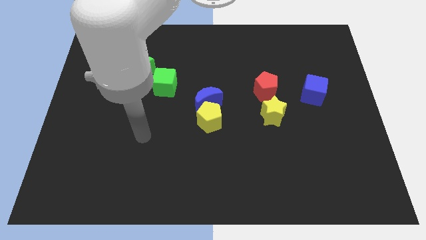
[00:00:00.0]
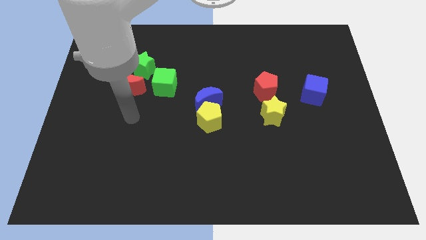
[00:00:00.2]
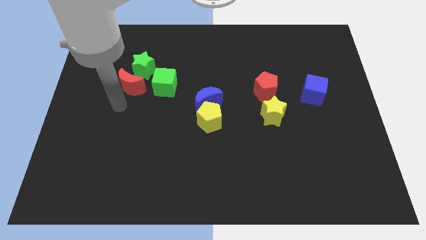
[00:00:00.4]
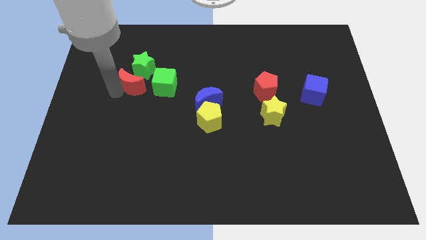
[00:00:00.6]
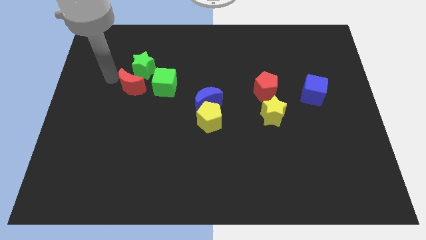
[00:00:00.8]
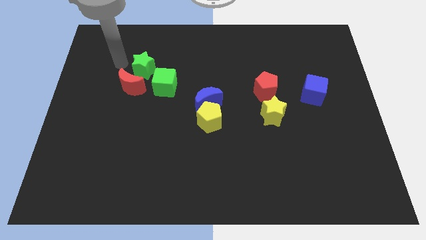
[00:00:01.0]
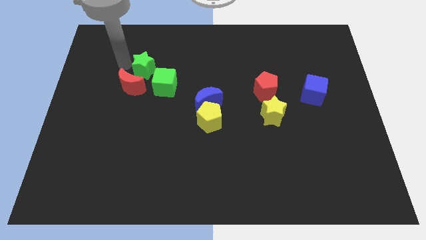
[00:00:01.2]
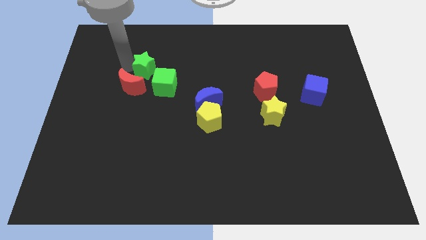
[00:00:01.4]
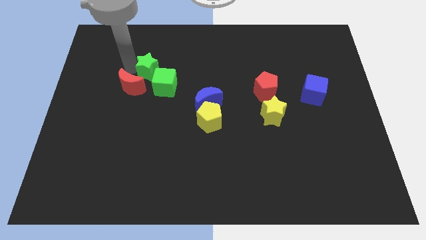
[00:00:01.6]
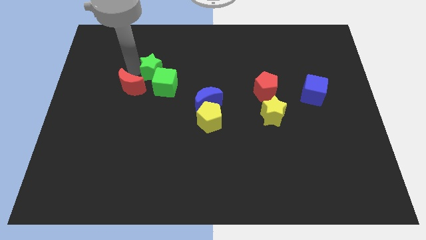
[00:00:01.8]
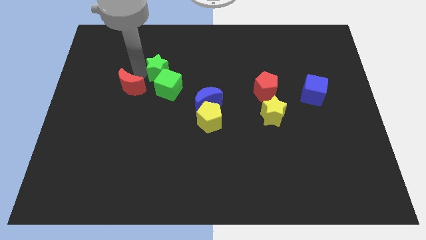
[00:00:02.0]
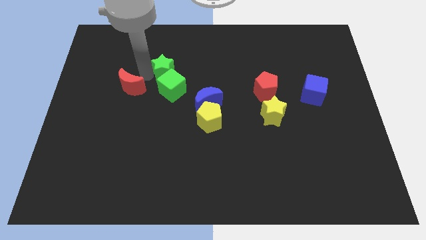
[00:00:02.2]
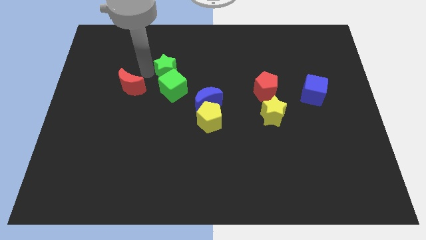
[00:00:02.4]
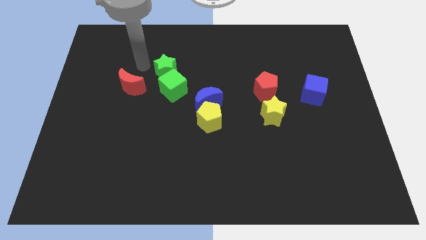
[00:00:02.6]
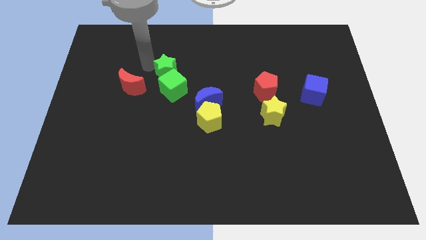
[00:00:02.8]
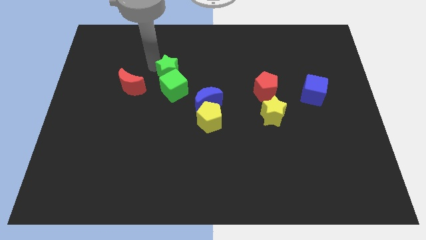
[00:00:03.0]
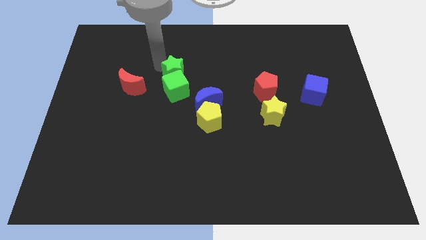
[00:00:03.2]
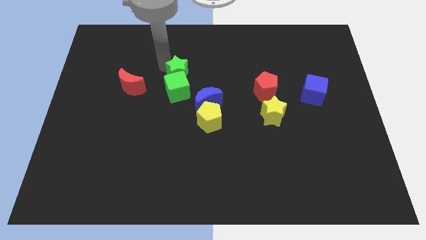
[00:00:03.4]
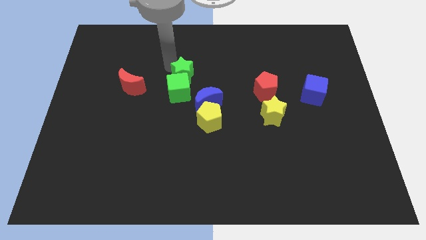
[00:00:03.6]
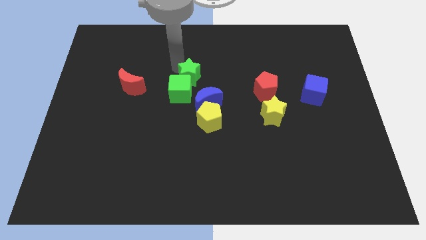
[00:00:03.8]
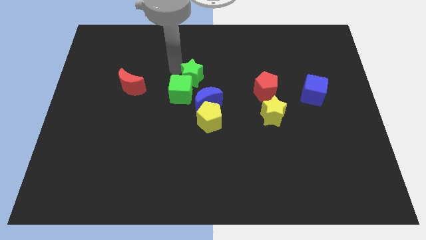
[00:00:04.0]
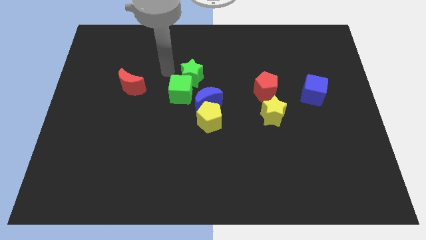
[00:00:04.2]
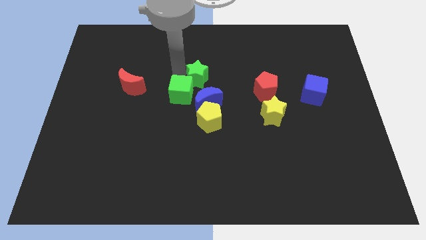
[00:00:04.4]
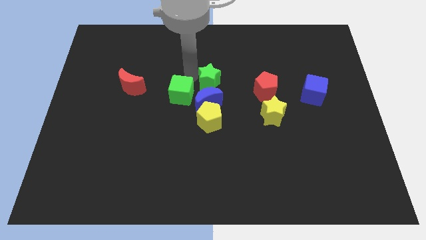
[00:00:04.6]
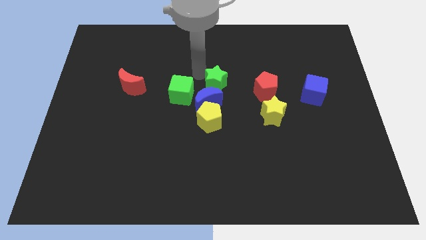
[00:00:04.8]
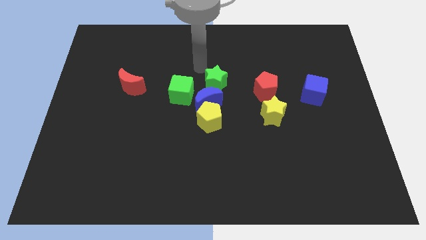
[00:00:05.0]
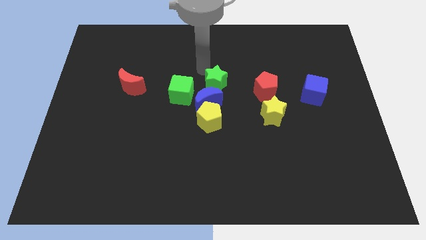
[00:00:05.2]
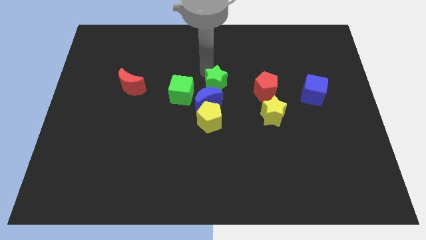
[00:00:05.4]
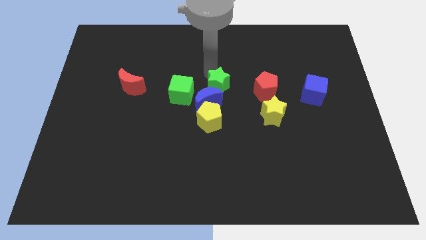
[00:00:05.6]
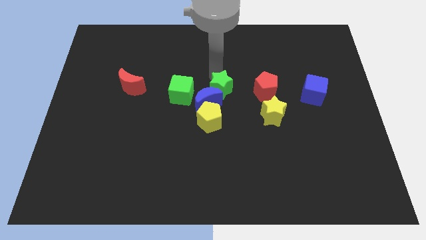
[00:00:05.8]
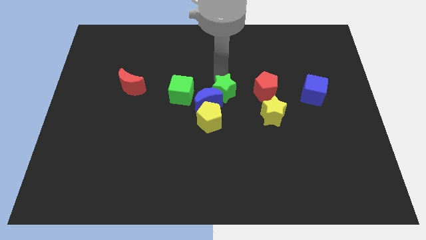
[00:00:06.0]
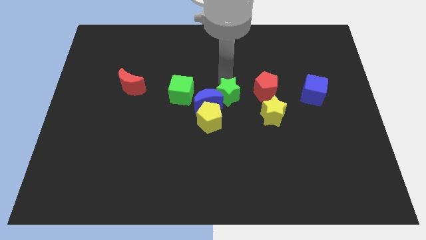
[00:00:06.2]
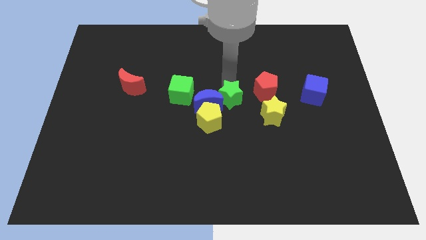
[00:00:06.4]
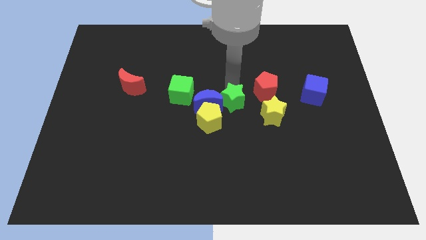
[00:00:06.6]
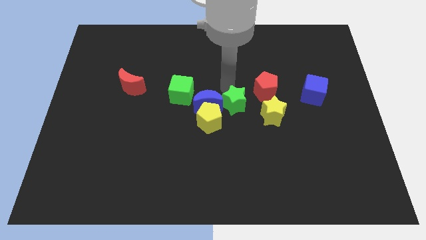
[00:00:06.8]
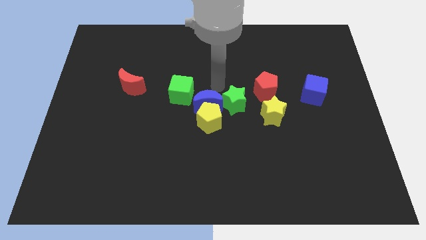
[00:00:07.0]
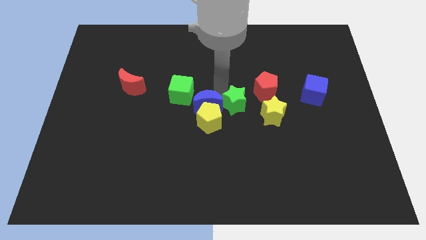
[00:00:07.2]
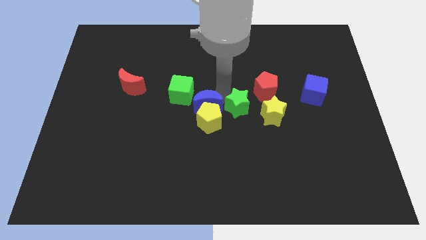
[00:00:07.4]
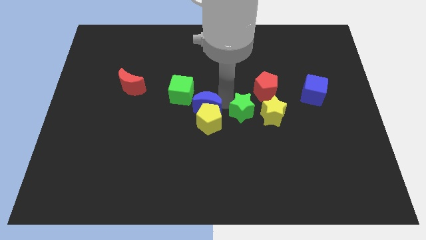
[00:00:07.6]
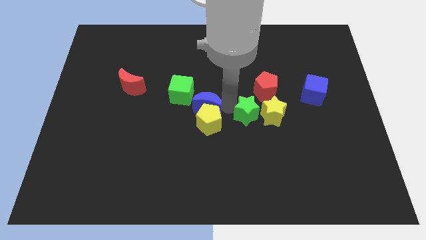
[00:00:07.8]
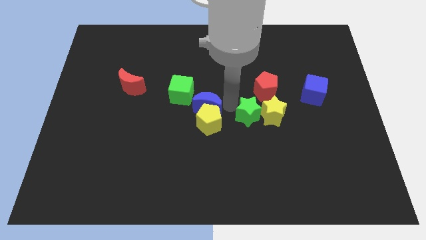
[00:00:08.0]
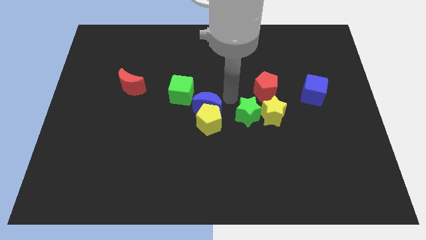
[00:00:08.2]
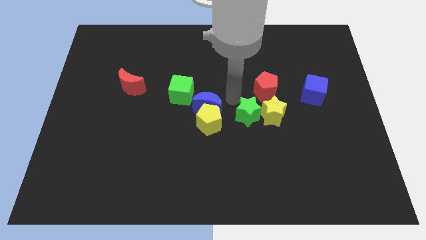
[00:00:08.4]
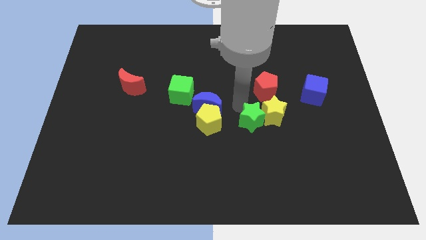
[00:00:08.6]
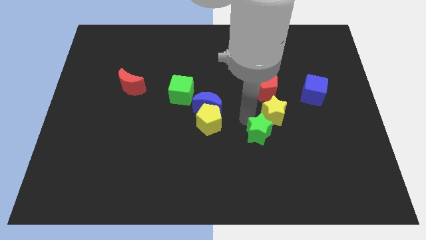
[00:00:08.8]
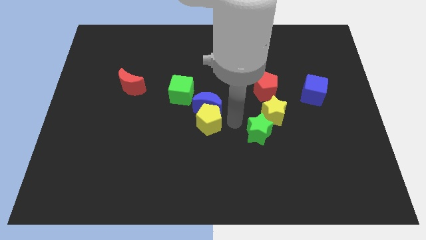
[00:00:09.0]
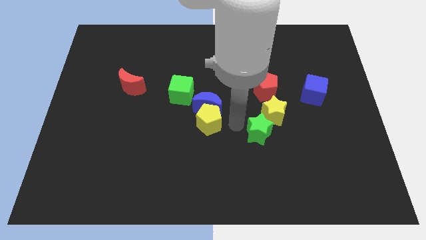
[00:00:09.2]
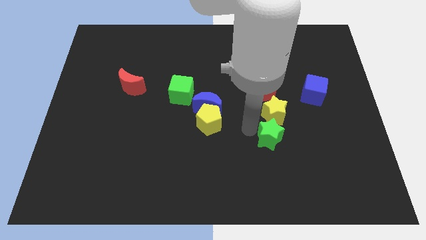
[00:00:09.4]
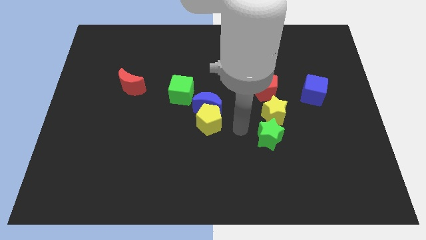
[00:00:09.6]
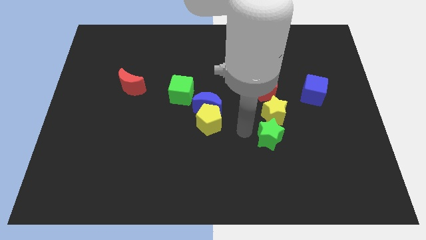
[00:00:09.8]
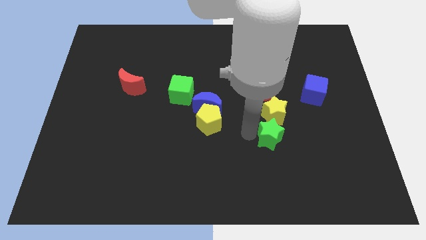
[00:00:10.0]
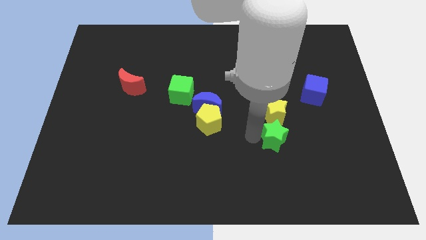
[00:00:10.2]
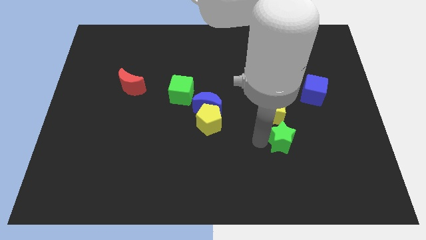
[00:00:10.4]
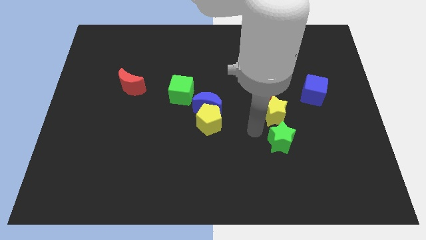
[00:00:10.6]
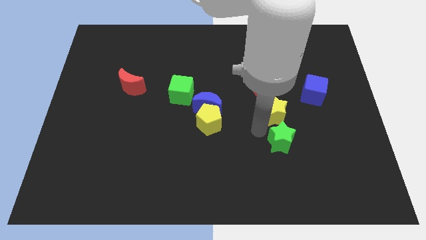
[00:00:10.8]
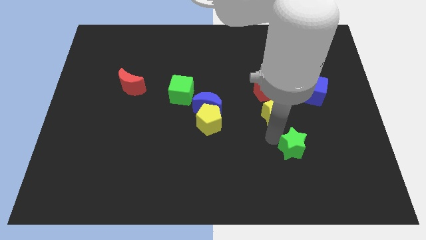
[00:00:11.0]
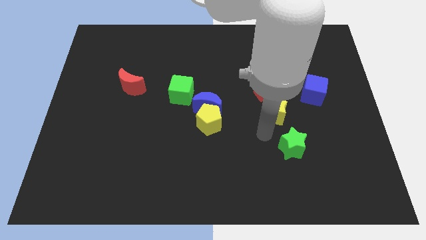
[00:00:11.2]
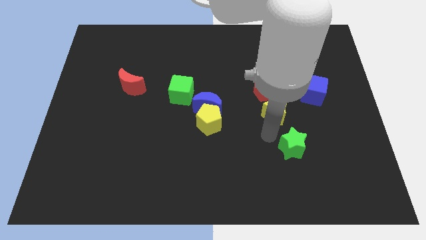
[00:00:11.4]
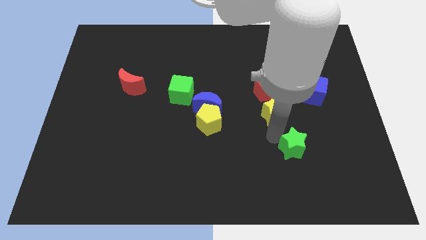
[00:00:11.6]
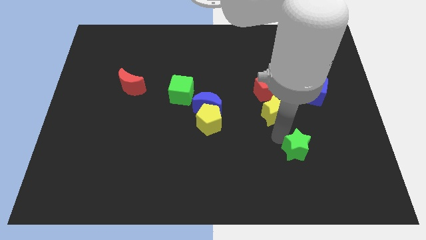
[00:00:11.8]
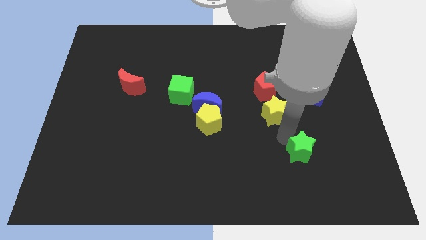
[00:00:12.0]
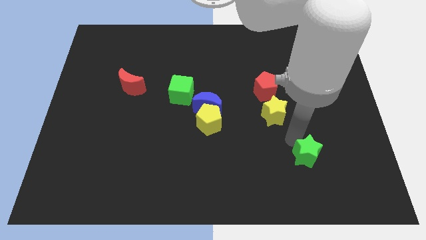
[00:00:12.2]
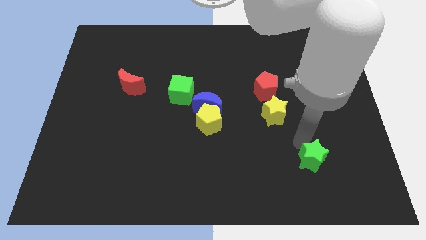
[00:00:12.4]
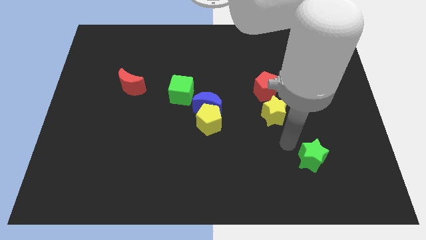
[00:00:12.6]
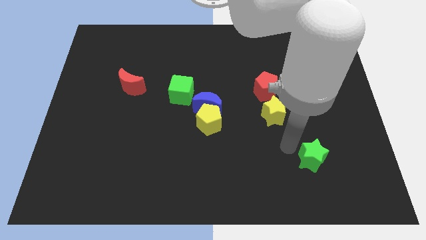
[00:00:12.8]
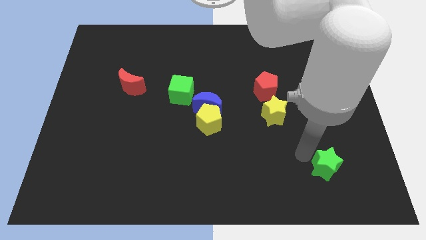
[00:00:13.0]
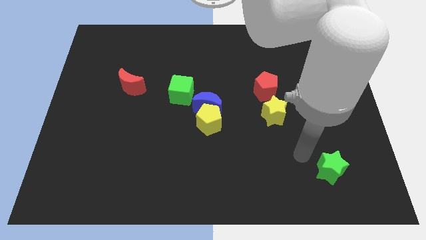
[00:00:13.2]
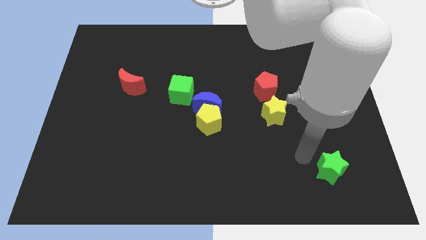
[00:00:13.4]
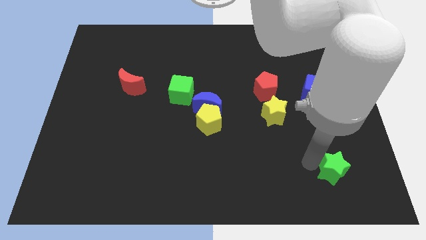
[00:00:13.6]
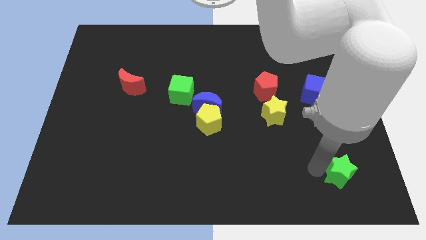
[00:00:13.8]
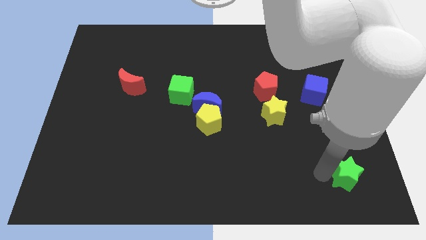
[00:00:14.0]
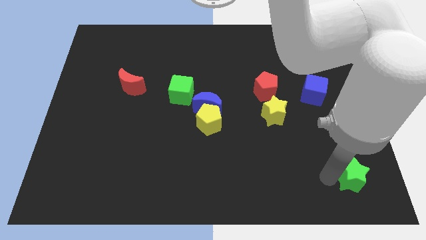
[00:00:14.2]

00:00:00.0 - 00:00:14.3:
slide the green star to the bottom right corner
